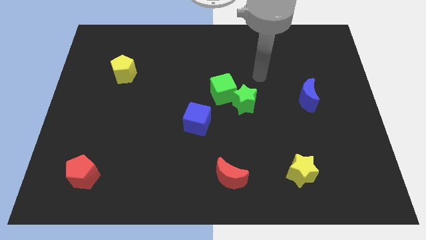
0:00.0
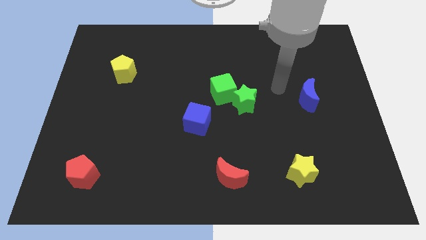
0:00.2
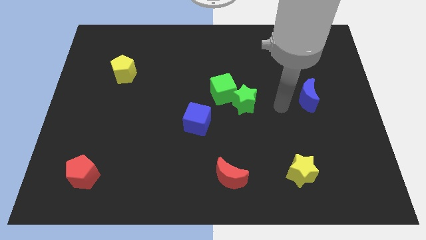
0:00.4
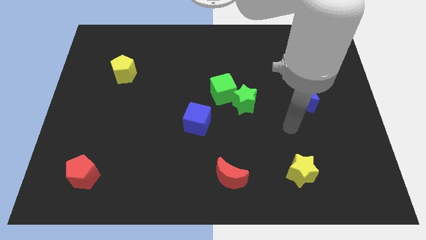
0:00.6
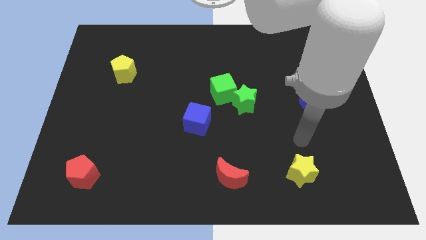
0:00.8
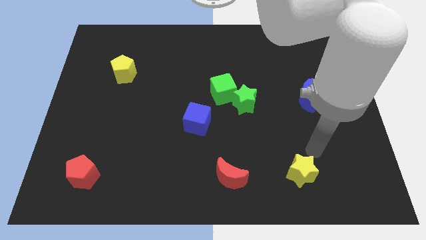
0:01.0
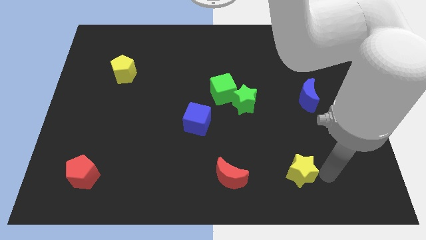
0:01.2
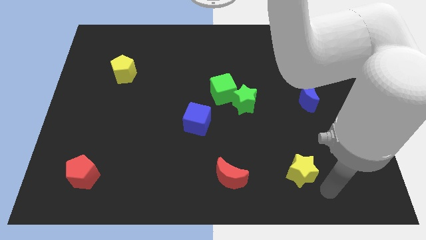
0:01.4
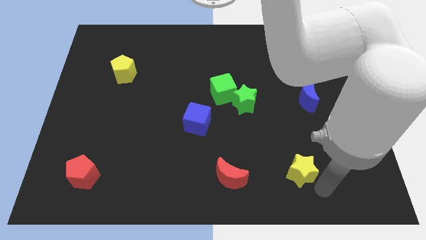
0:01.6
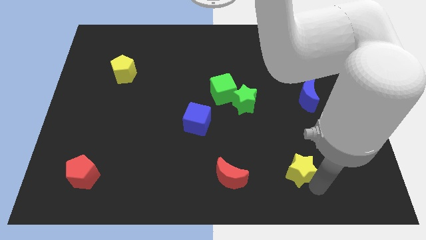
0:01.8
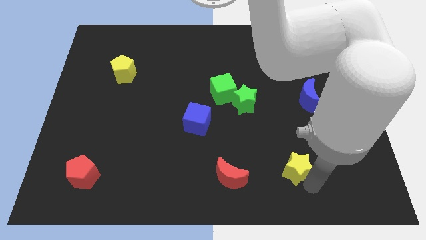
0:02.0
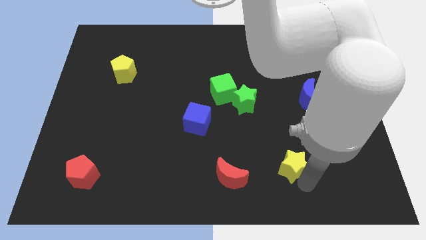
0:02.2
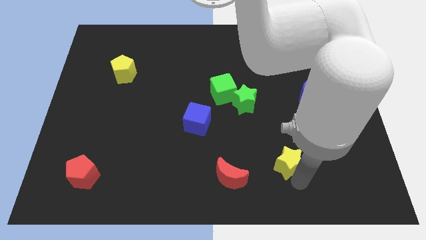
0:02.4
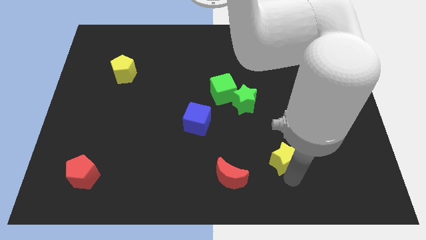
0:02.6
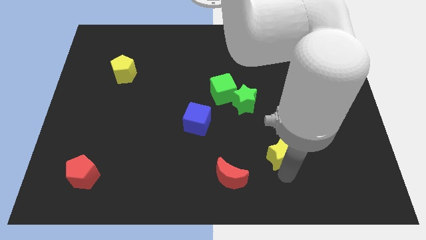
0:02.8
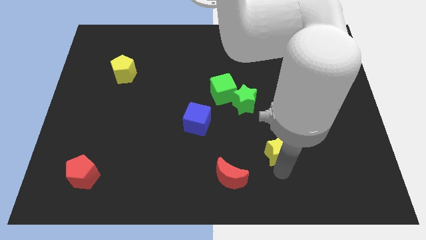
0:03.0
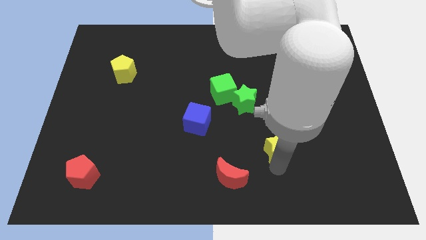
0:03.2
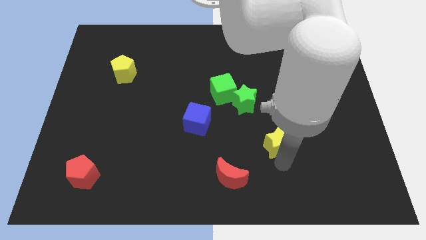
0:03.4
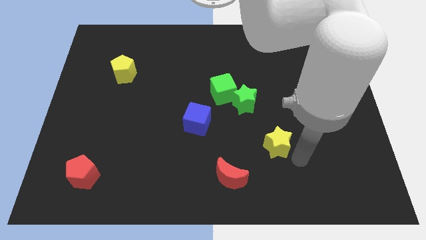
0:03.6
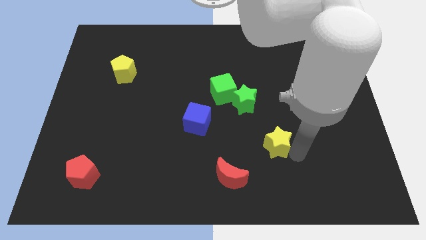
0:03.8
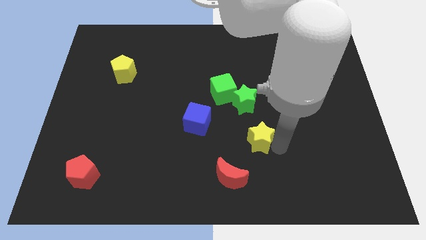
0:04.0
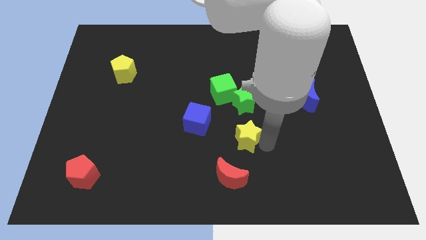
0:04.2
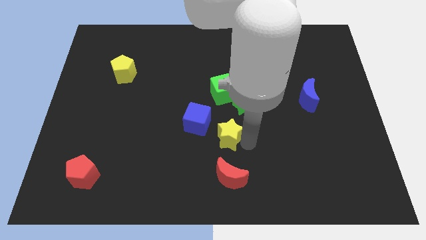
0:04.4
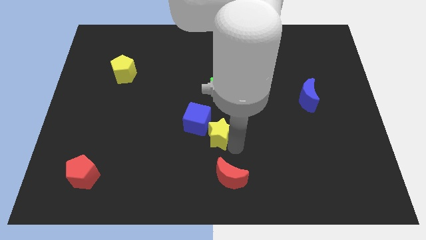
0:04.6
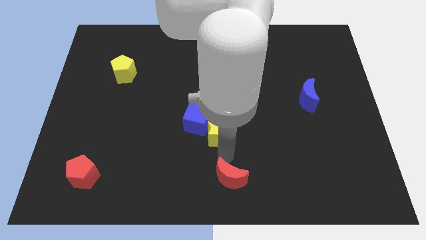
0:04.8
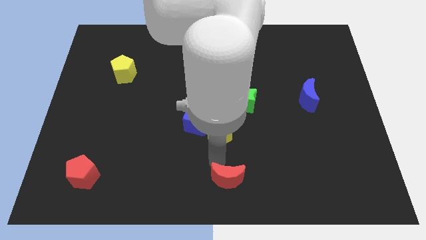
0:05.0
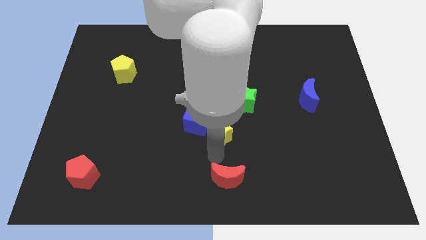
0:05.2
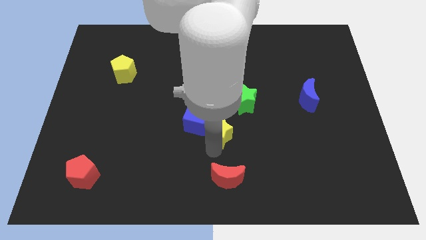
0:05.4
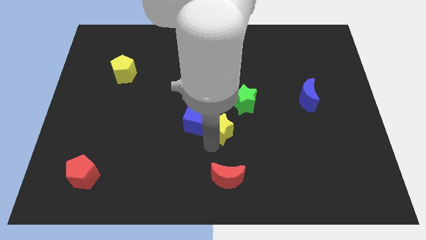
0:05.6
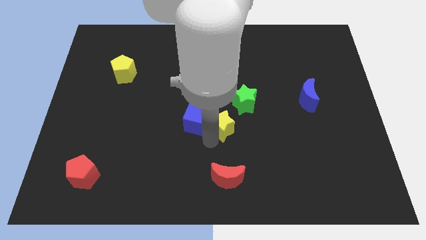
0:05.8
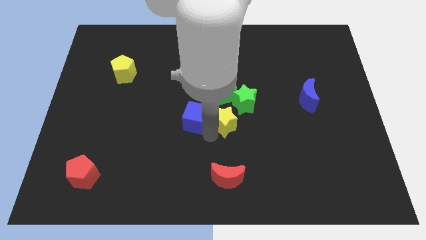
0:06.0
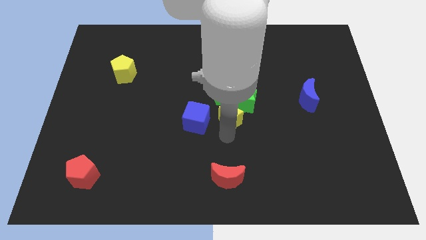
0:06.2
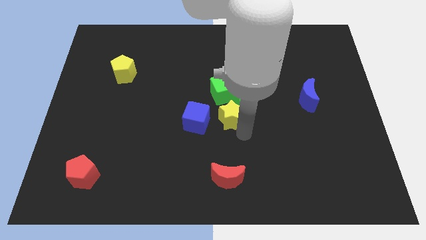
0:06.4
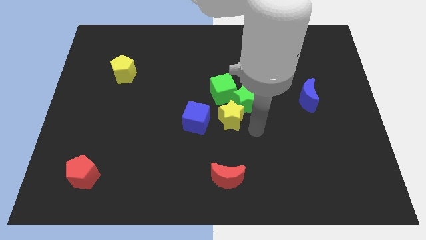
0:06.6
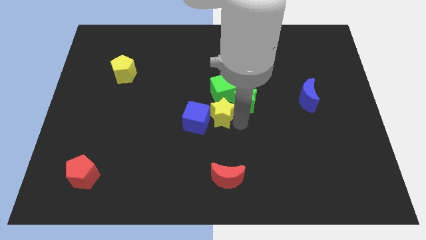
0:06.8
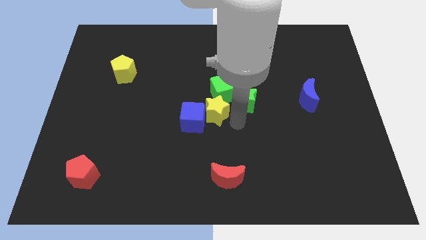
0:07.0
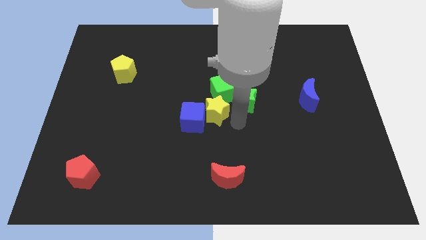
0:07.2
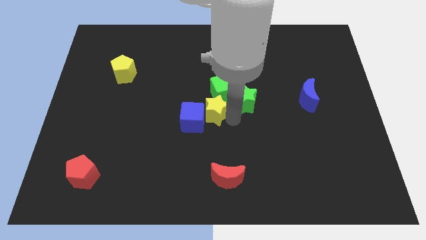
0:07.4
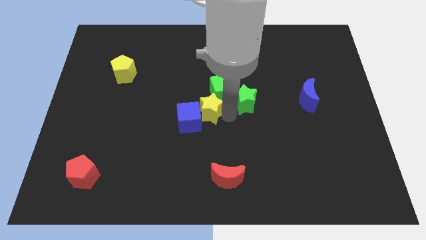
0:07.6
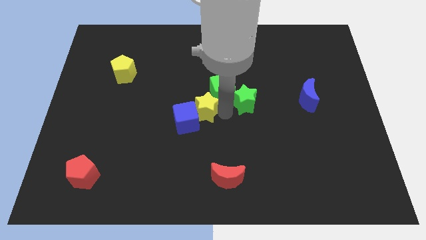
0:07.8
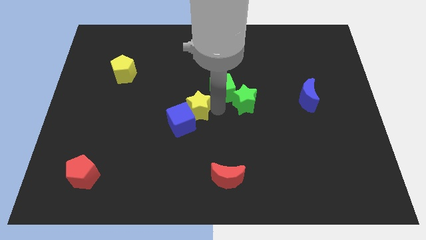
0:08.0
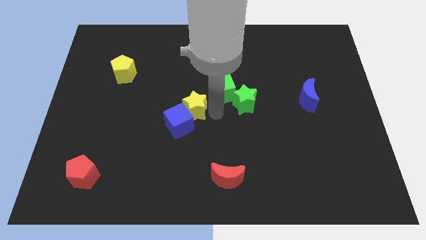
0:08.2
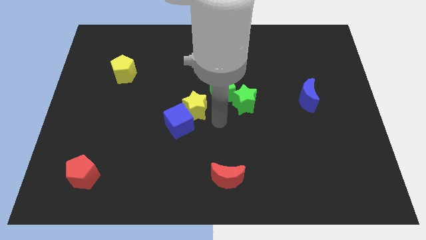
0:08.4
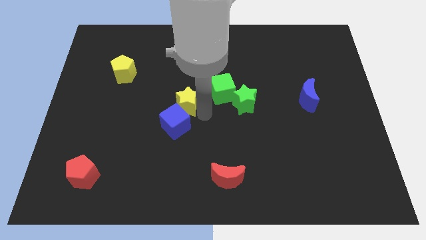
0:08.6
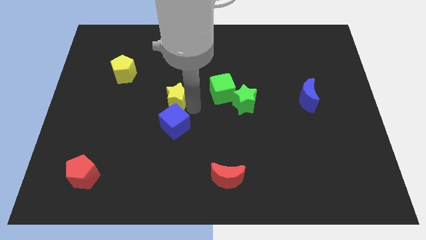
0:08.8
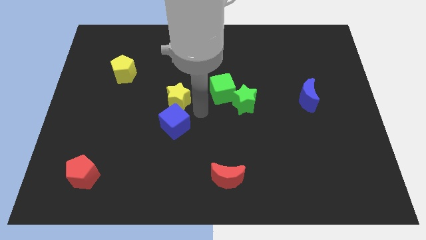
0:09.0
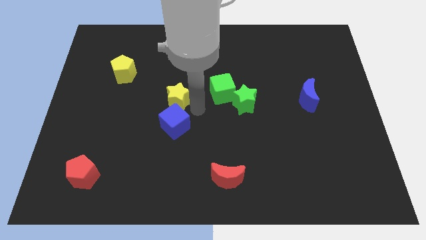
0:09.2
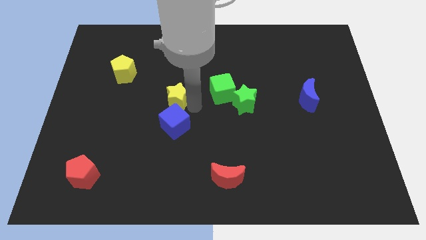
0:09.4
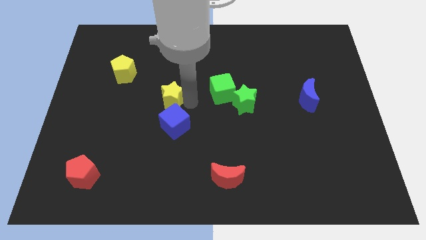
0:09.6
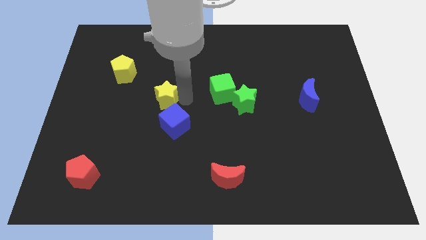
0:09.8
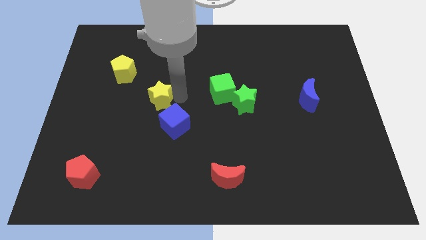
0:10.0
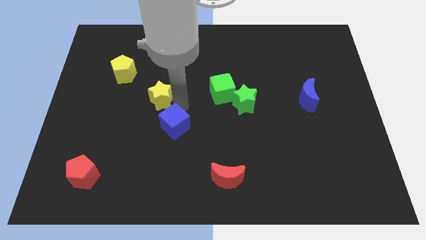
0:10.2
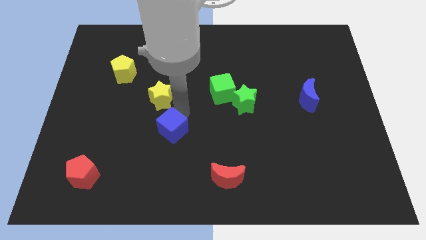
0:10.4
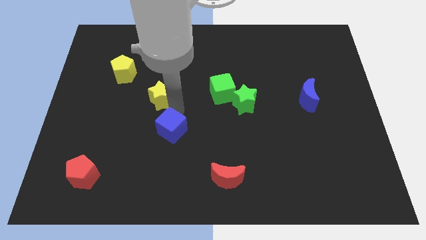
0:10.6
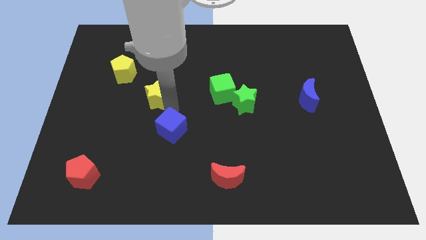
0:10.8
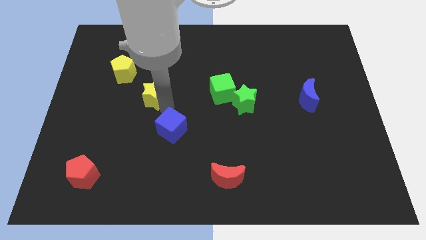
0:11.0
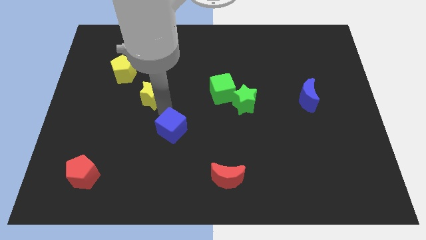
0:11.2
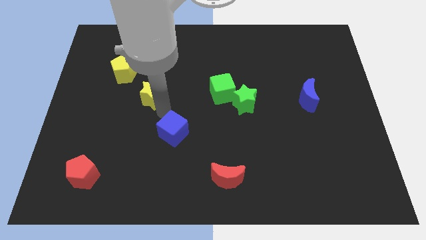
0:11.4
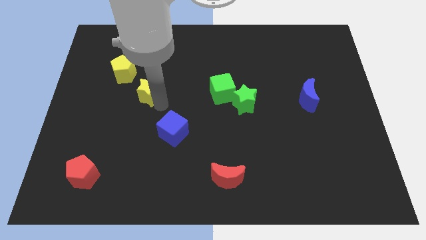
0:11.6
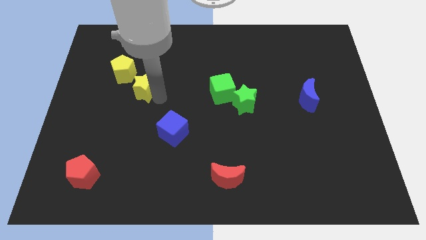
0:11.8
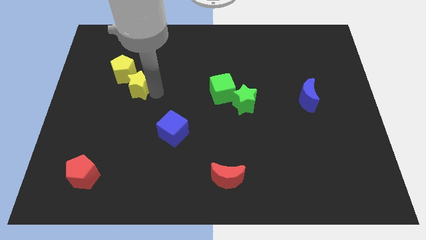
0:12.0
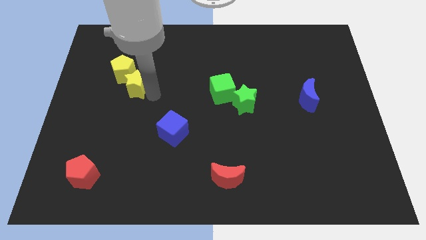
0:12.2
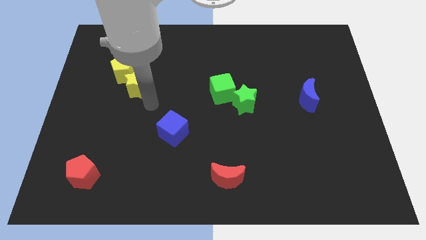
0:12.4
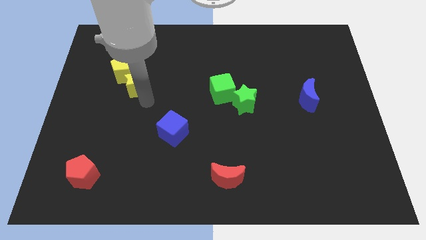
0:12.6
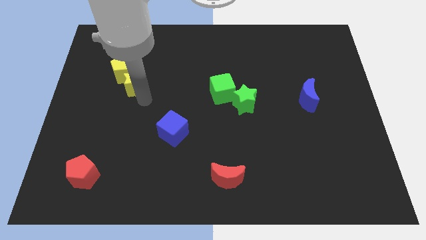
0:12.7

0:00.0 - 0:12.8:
put the yellow star close to the yellow pentagon

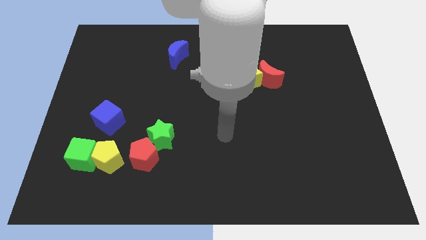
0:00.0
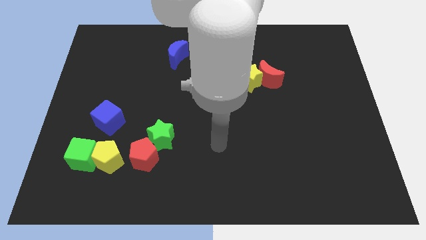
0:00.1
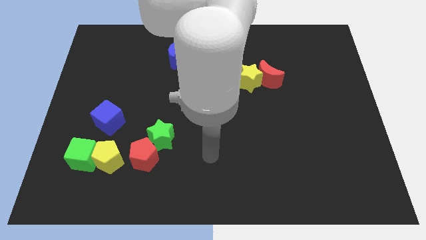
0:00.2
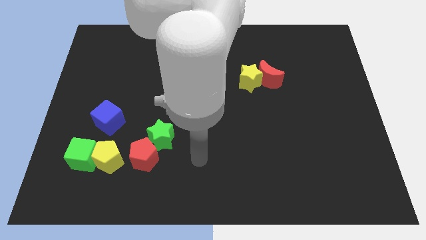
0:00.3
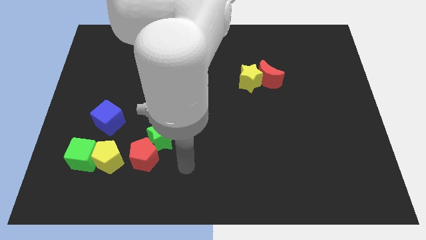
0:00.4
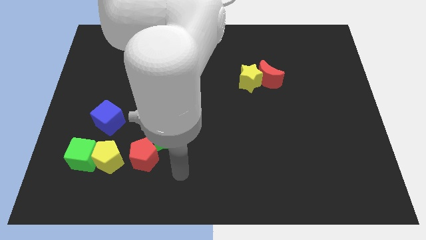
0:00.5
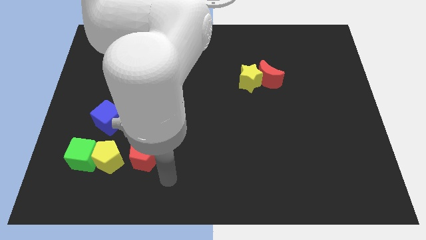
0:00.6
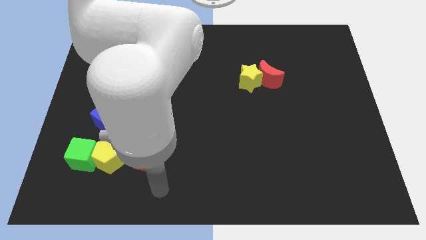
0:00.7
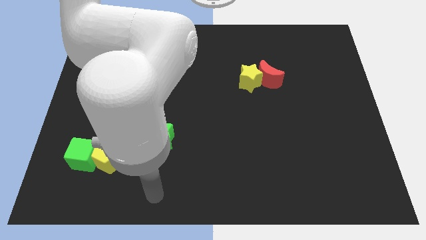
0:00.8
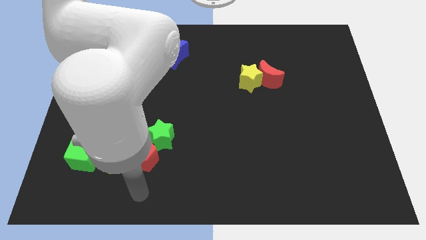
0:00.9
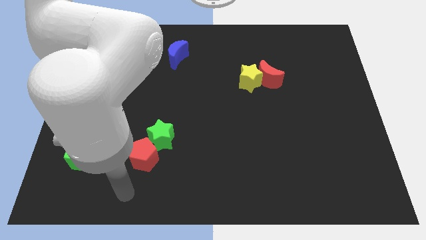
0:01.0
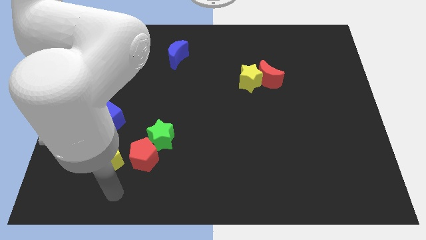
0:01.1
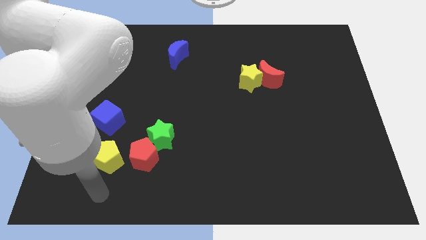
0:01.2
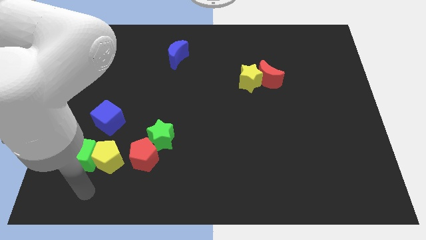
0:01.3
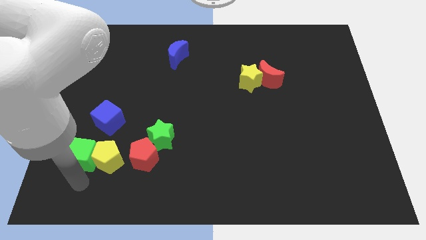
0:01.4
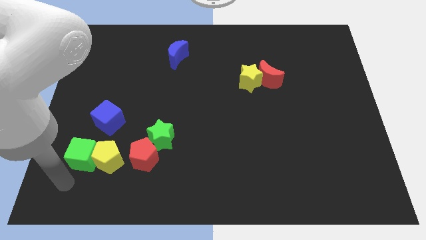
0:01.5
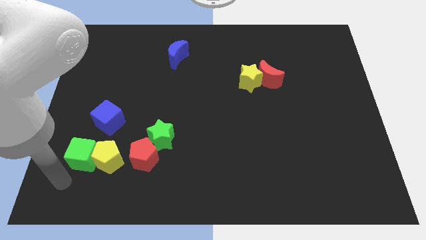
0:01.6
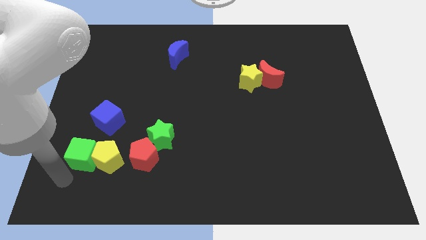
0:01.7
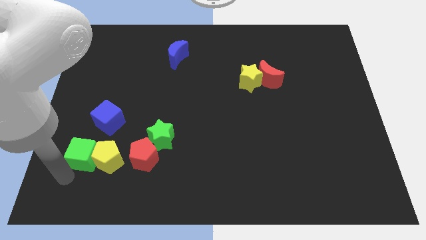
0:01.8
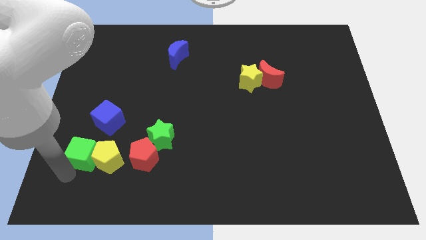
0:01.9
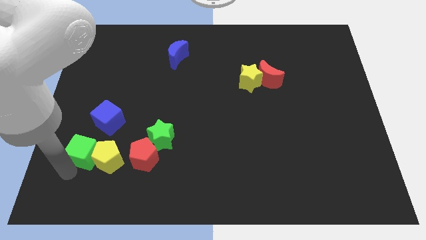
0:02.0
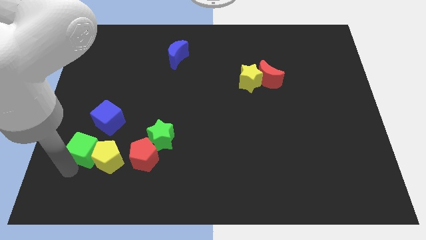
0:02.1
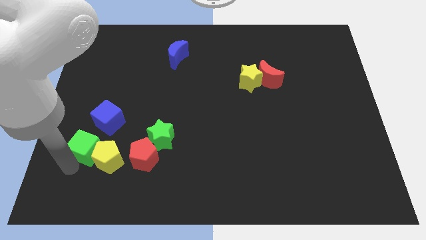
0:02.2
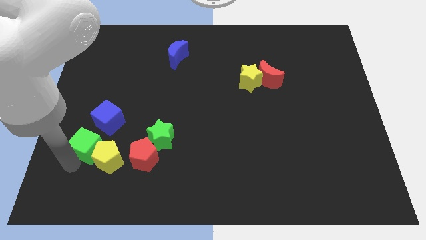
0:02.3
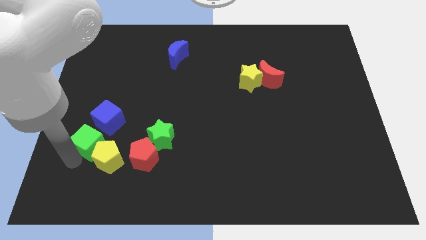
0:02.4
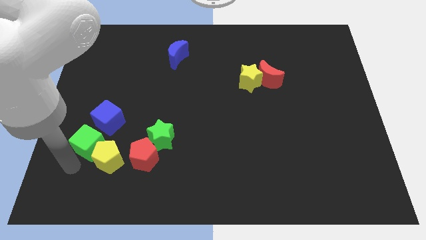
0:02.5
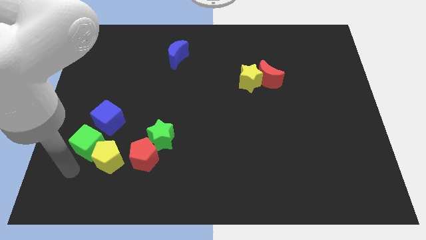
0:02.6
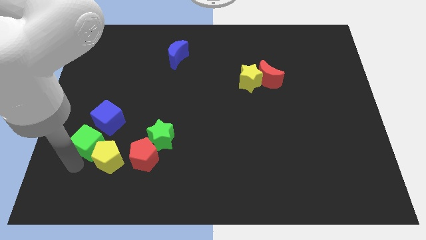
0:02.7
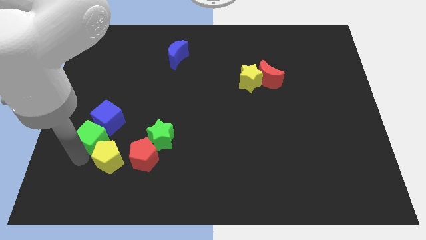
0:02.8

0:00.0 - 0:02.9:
push the green cube towards the blue cube
